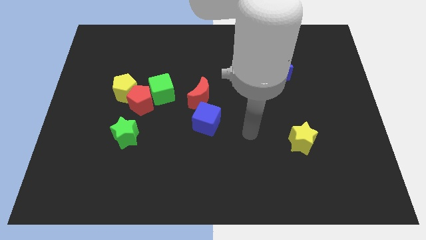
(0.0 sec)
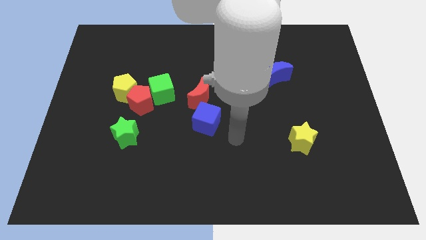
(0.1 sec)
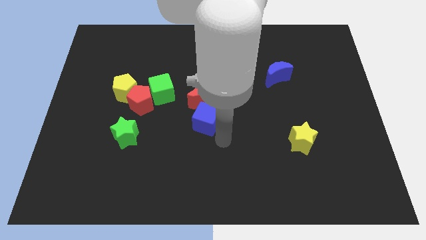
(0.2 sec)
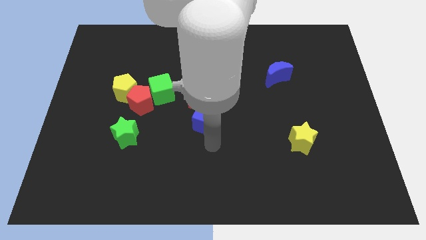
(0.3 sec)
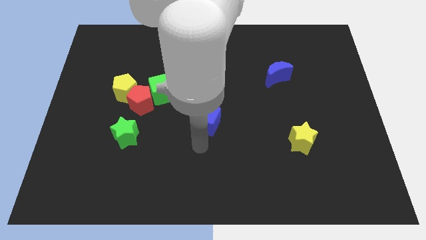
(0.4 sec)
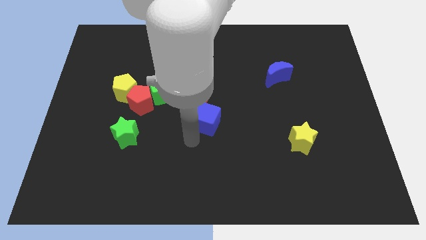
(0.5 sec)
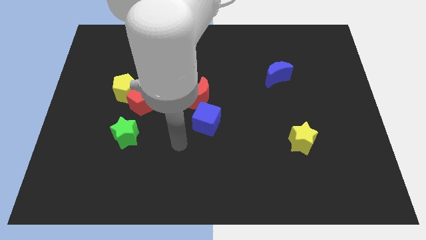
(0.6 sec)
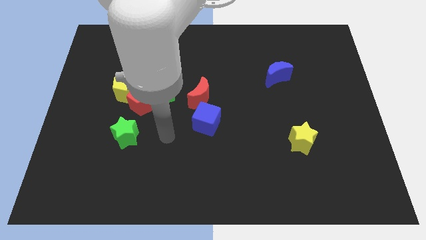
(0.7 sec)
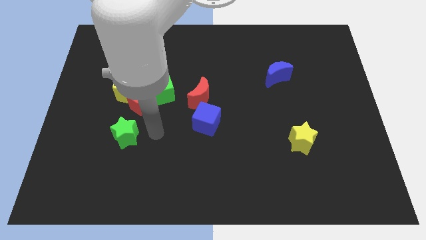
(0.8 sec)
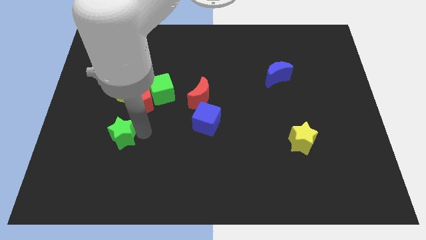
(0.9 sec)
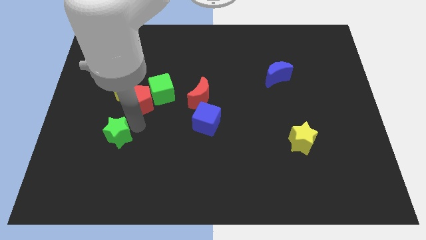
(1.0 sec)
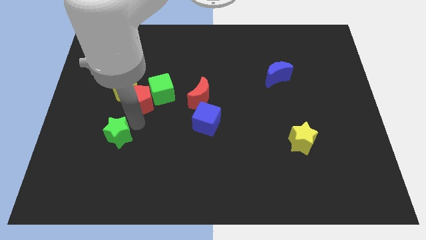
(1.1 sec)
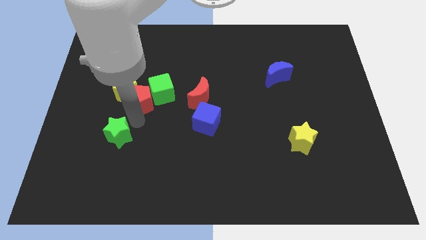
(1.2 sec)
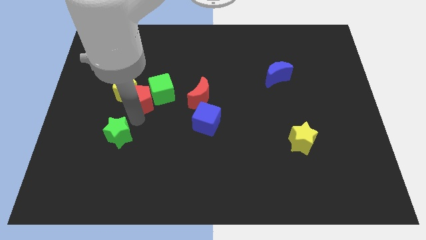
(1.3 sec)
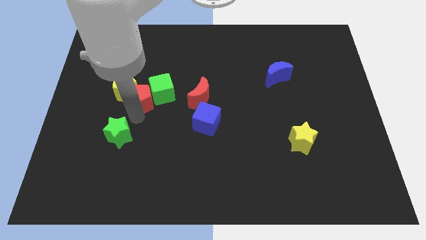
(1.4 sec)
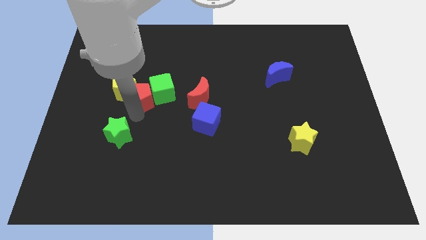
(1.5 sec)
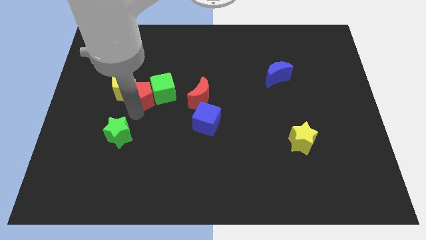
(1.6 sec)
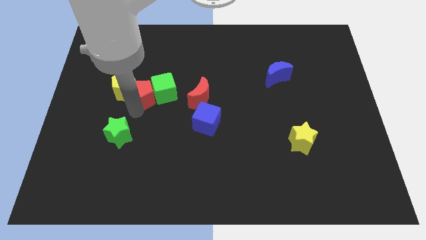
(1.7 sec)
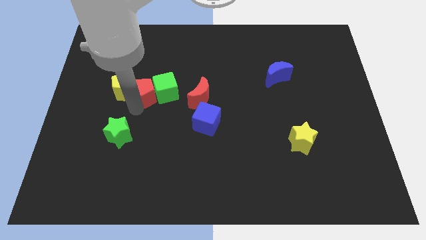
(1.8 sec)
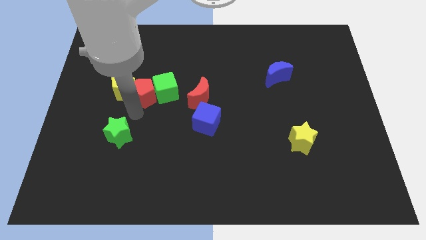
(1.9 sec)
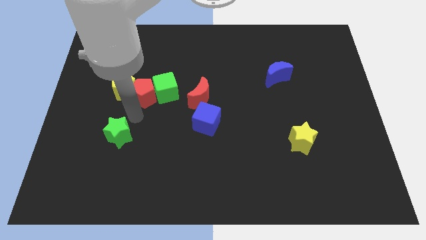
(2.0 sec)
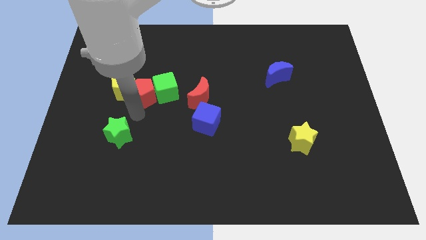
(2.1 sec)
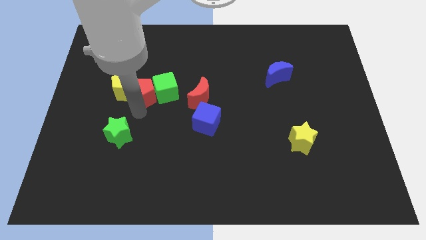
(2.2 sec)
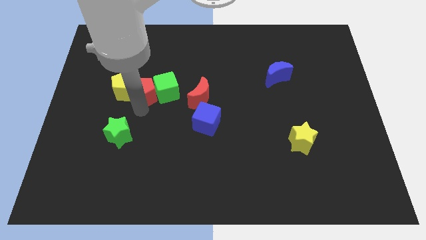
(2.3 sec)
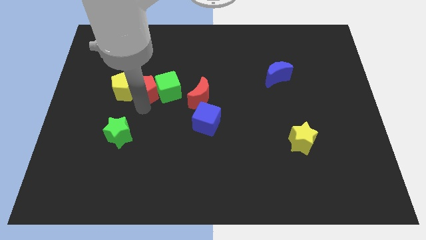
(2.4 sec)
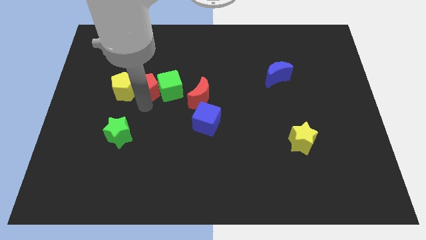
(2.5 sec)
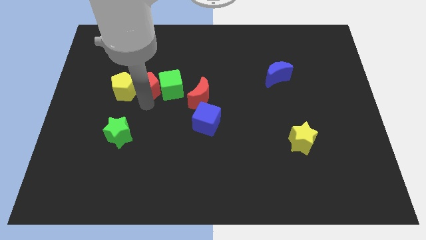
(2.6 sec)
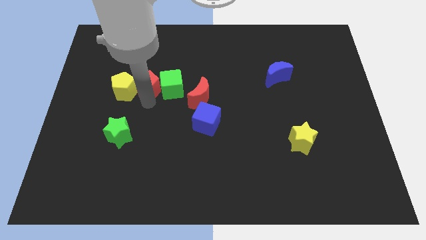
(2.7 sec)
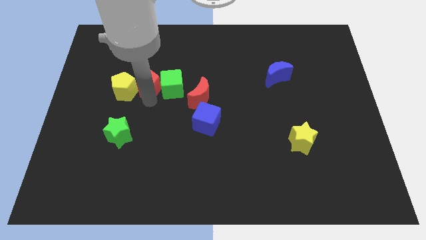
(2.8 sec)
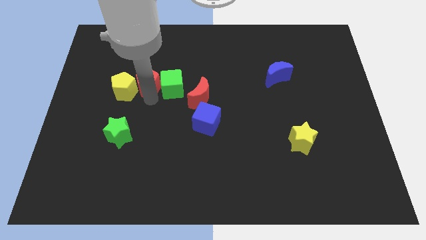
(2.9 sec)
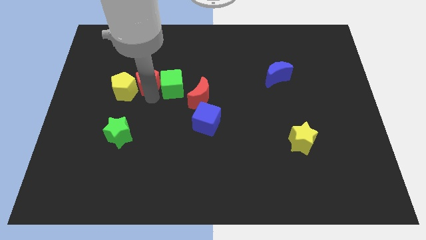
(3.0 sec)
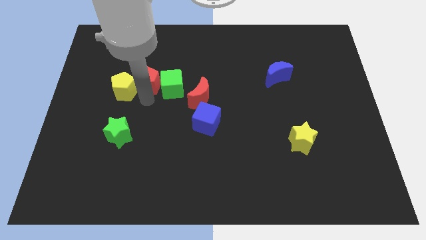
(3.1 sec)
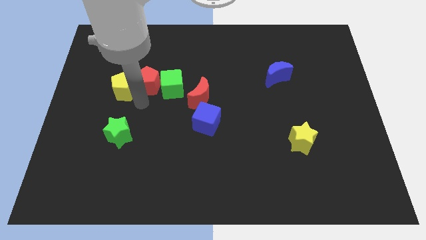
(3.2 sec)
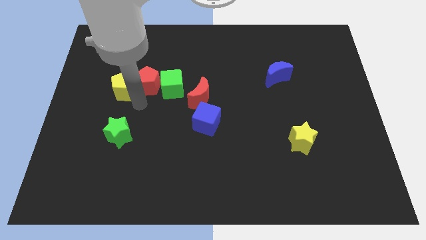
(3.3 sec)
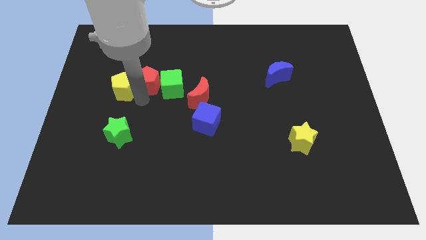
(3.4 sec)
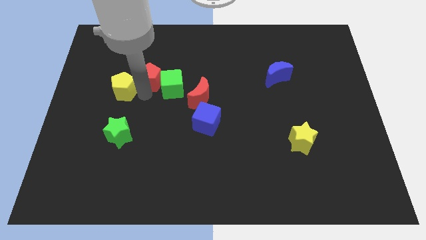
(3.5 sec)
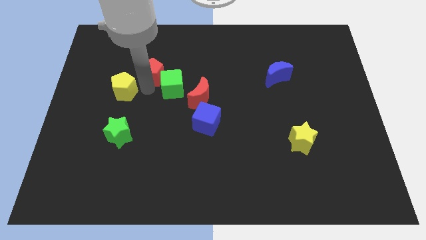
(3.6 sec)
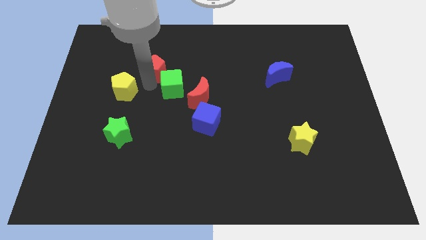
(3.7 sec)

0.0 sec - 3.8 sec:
separate the red pentagon from the group of blocks

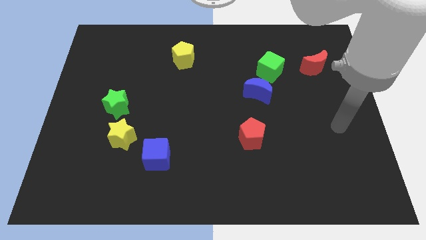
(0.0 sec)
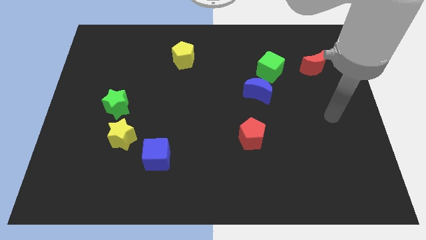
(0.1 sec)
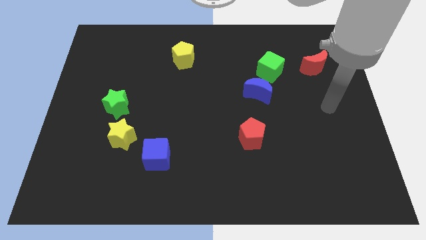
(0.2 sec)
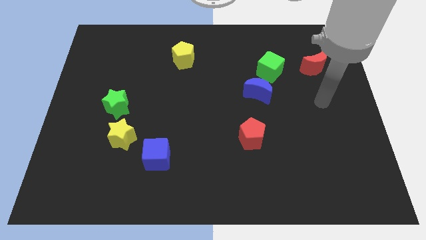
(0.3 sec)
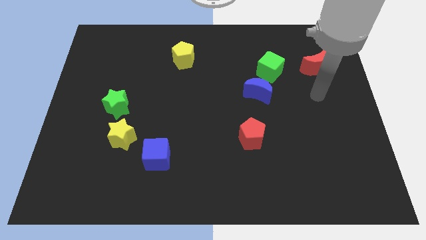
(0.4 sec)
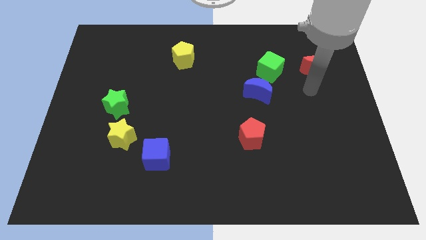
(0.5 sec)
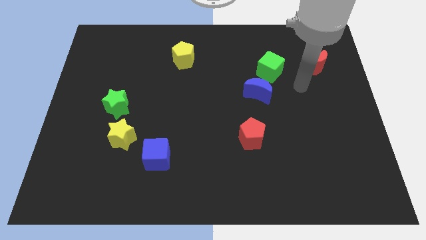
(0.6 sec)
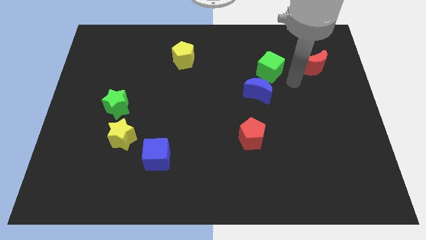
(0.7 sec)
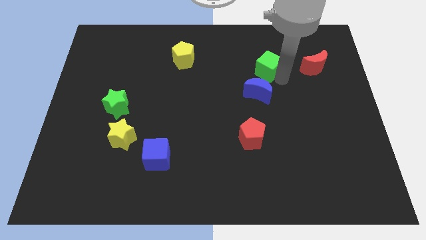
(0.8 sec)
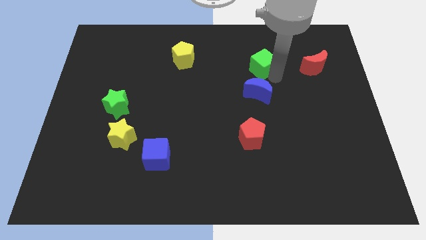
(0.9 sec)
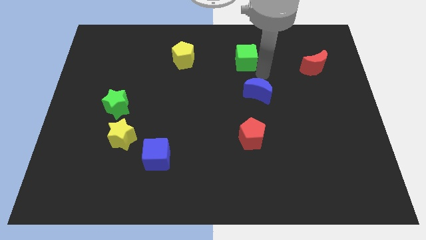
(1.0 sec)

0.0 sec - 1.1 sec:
move the blue moon away from the green cube

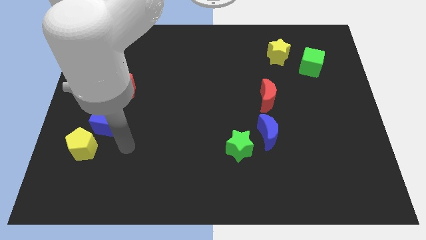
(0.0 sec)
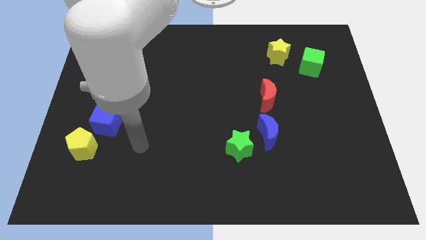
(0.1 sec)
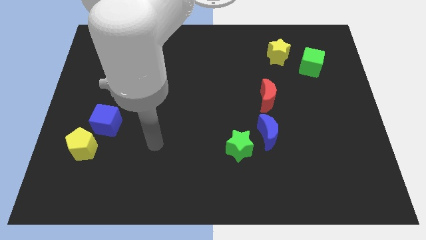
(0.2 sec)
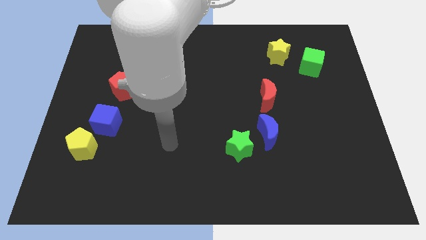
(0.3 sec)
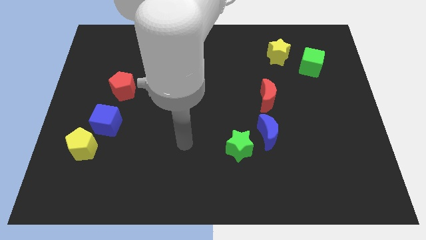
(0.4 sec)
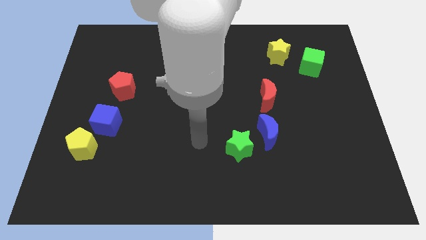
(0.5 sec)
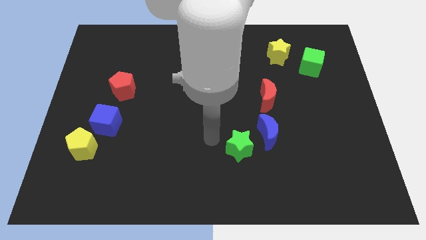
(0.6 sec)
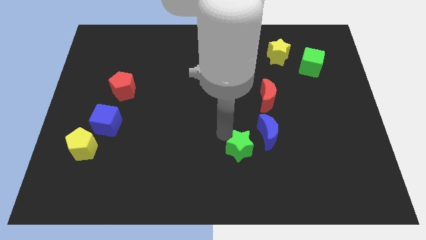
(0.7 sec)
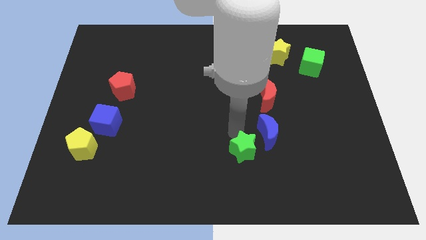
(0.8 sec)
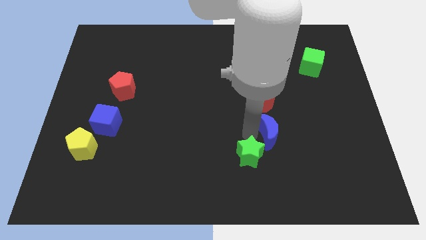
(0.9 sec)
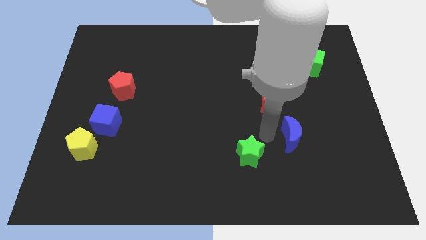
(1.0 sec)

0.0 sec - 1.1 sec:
move the green star away from the blue moon

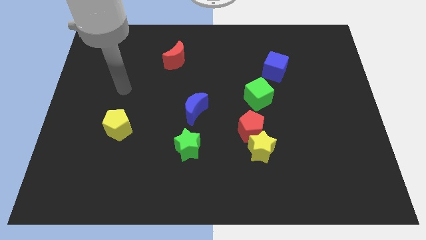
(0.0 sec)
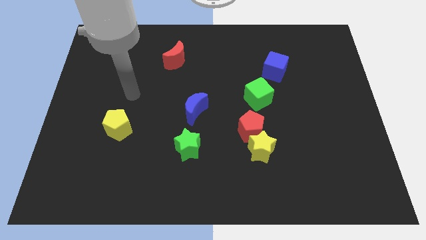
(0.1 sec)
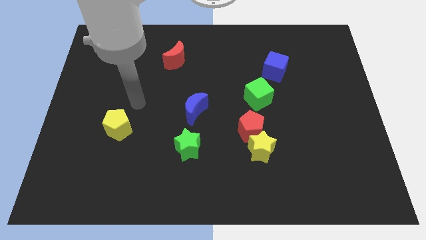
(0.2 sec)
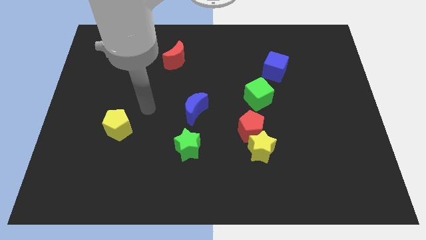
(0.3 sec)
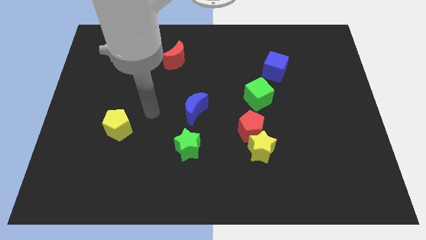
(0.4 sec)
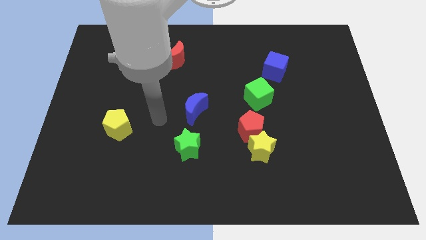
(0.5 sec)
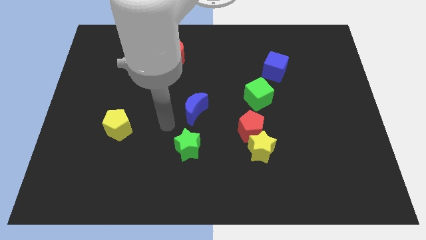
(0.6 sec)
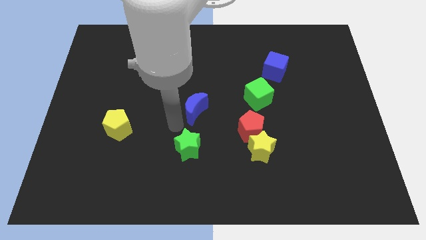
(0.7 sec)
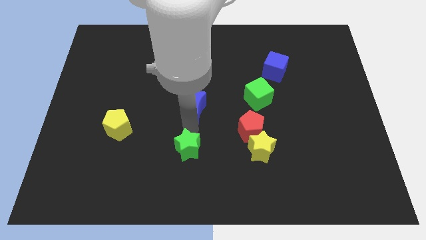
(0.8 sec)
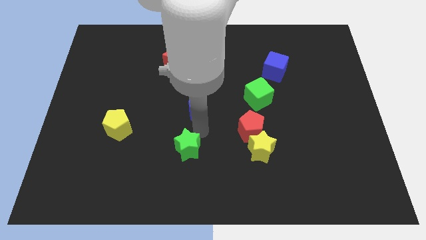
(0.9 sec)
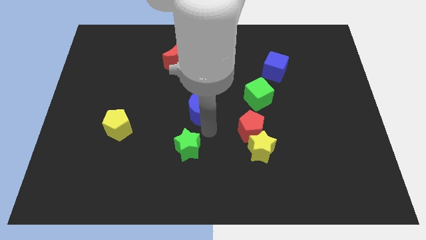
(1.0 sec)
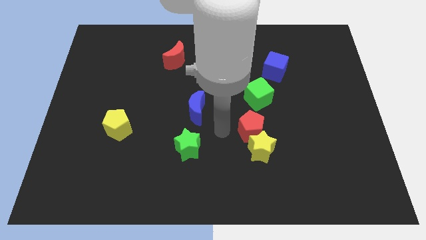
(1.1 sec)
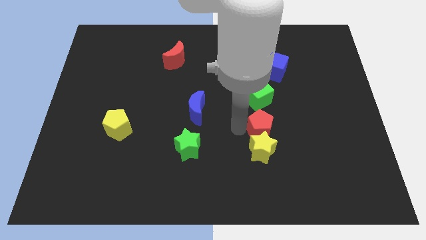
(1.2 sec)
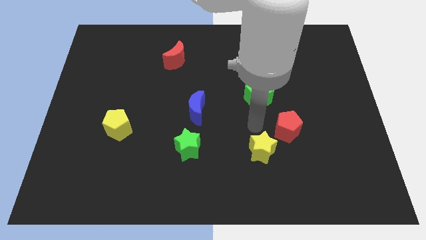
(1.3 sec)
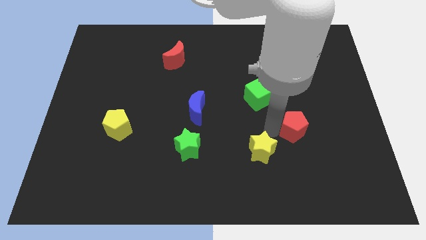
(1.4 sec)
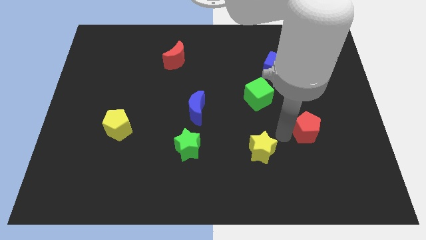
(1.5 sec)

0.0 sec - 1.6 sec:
move the yellow star away from the red pentagon

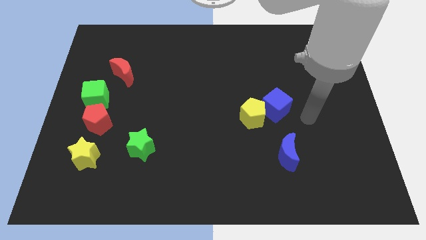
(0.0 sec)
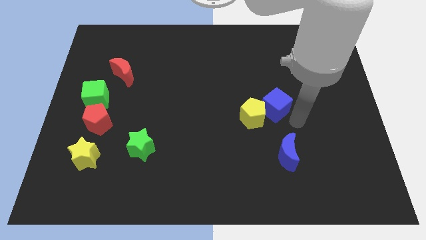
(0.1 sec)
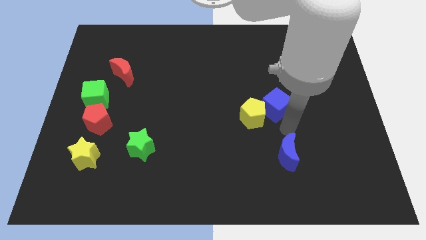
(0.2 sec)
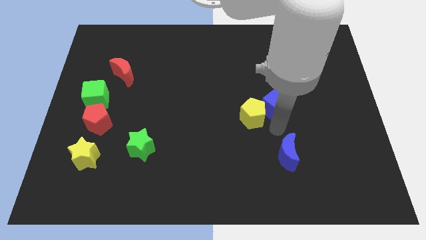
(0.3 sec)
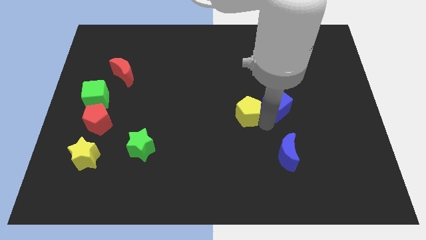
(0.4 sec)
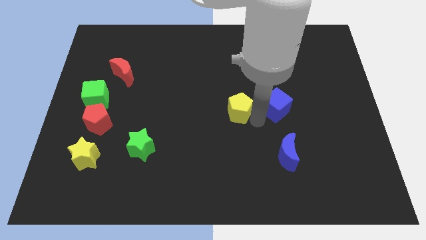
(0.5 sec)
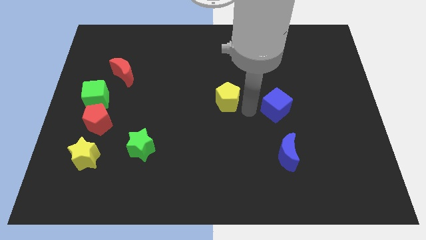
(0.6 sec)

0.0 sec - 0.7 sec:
move the blue cube away from the yellow pentagon

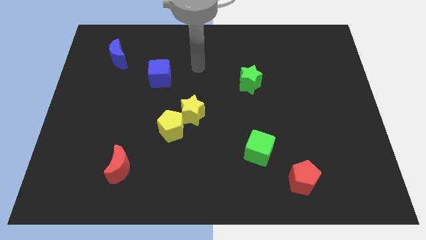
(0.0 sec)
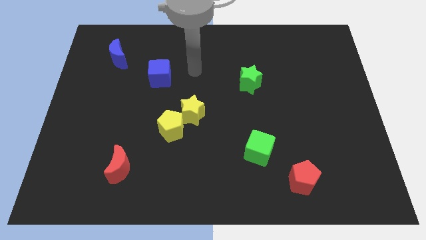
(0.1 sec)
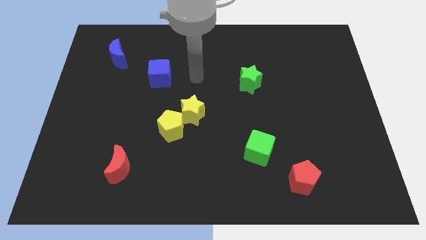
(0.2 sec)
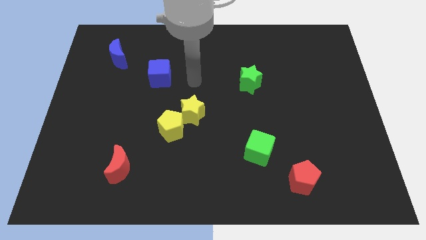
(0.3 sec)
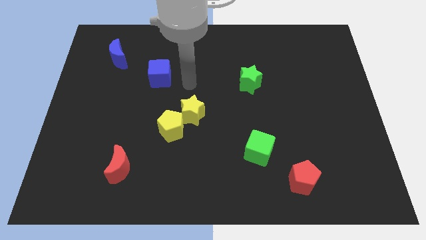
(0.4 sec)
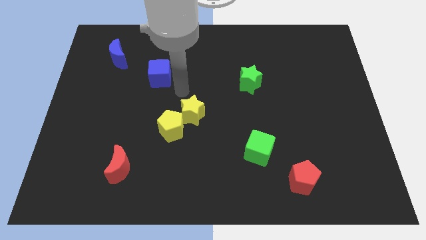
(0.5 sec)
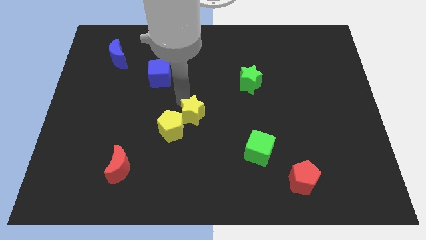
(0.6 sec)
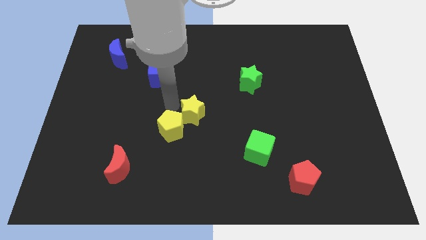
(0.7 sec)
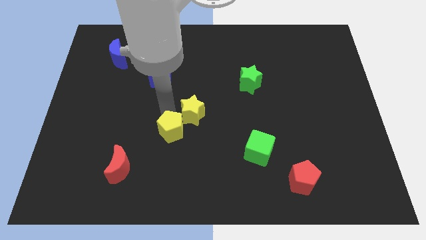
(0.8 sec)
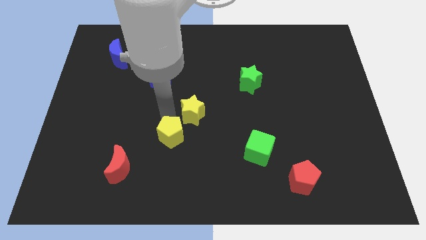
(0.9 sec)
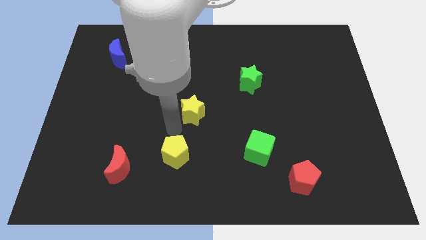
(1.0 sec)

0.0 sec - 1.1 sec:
pull the yellow star apart from the yellow pentagon
